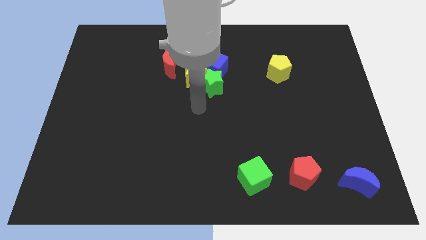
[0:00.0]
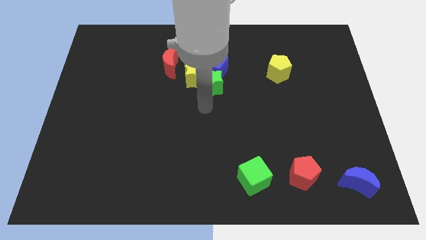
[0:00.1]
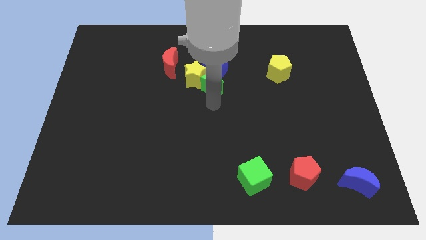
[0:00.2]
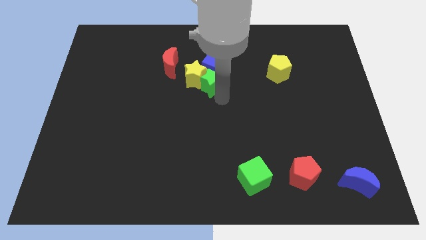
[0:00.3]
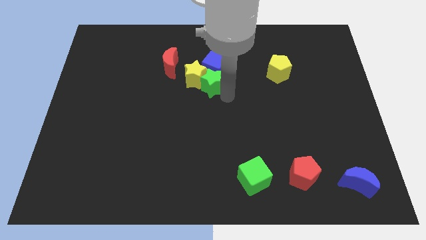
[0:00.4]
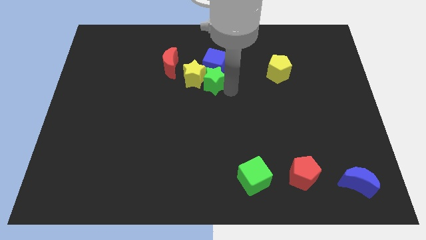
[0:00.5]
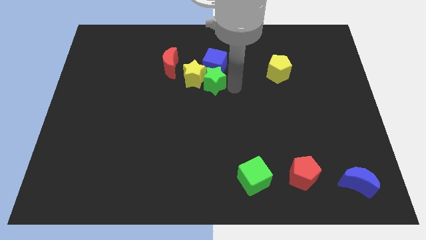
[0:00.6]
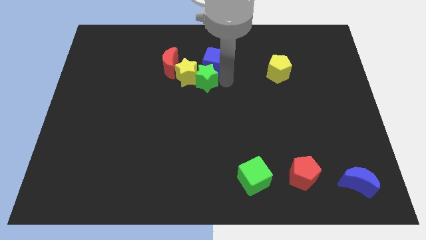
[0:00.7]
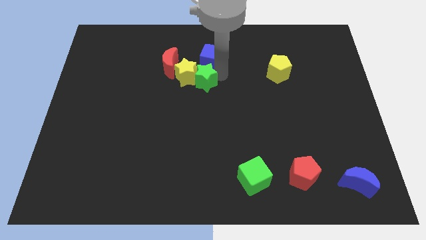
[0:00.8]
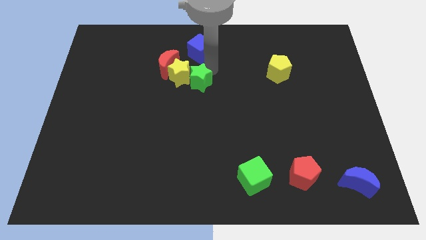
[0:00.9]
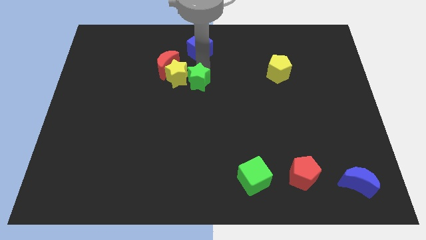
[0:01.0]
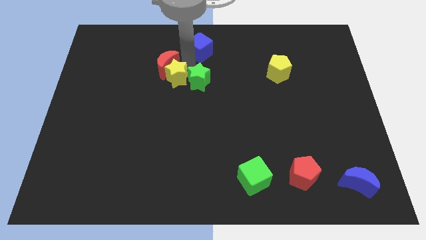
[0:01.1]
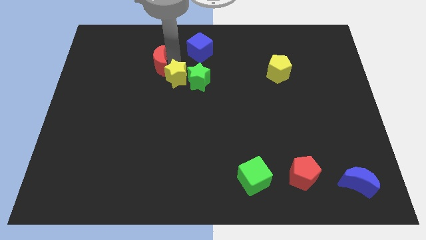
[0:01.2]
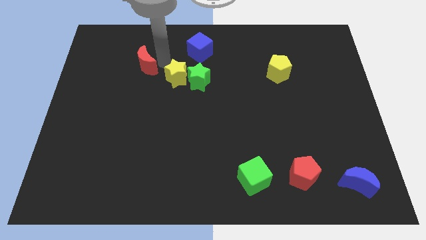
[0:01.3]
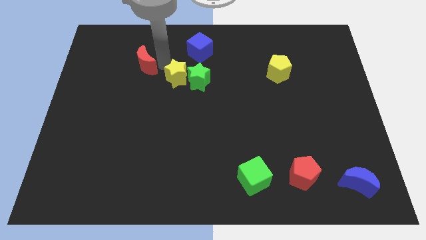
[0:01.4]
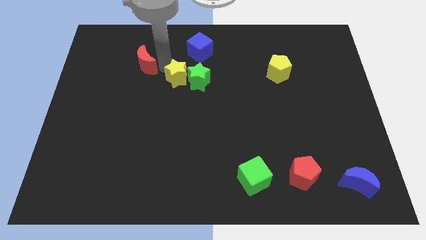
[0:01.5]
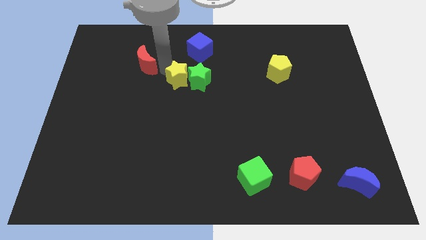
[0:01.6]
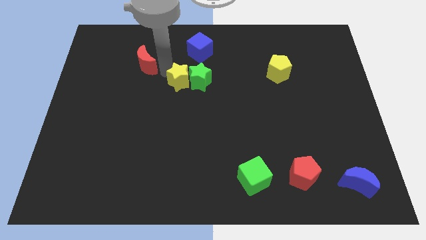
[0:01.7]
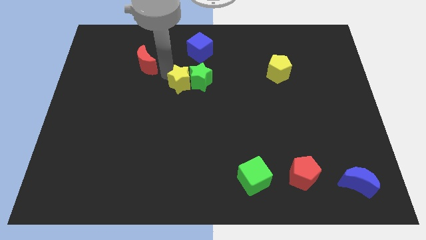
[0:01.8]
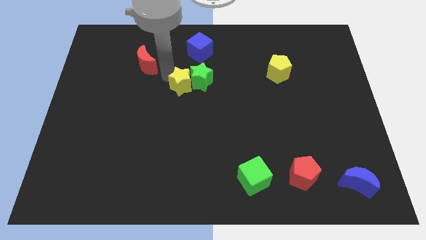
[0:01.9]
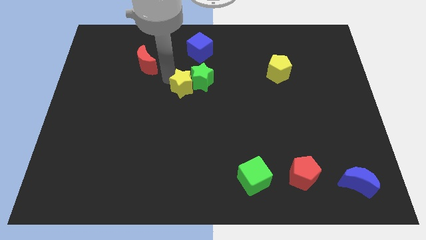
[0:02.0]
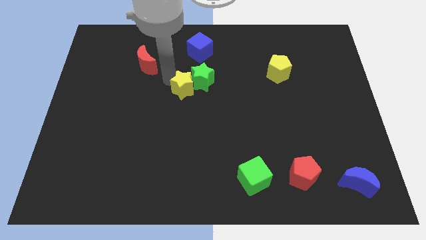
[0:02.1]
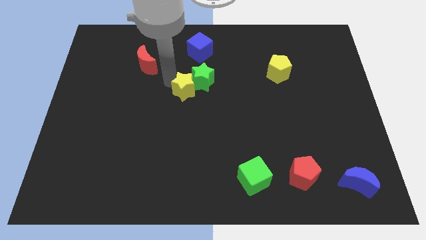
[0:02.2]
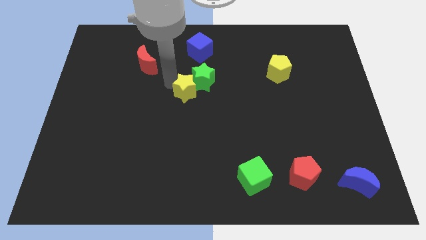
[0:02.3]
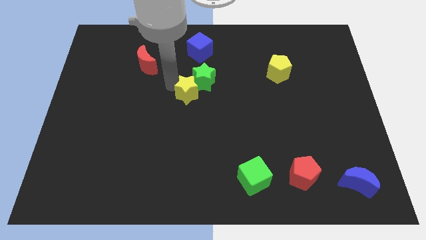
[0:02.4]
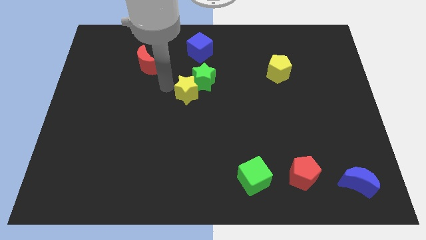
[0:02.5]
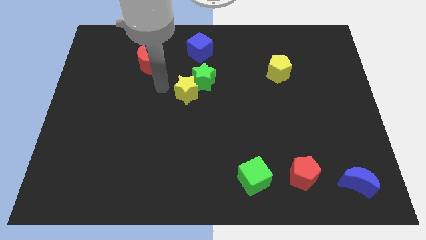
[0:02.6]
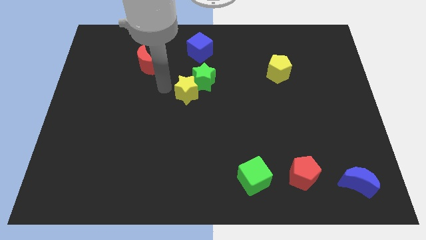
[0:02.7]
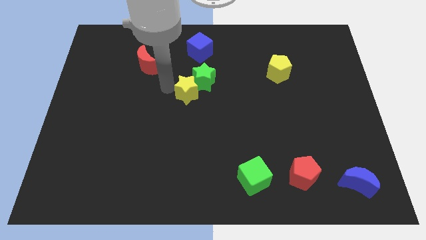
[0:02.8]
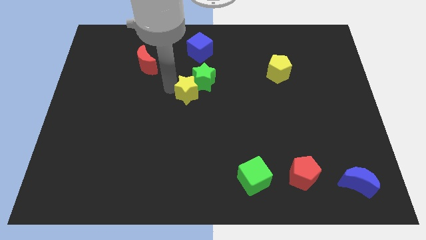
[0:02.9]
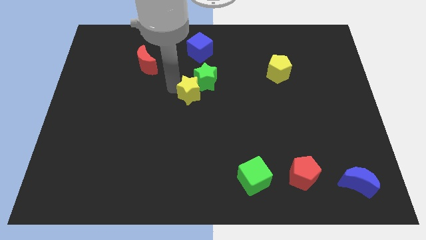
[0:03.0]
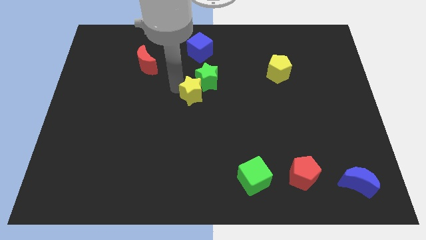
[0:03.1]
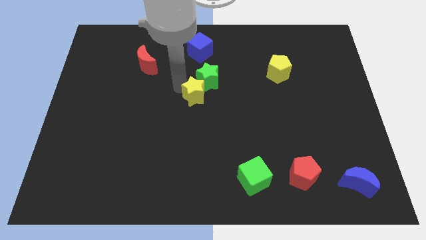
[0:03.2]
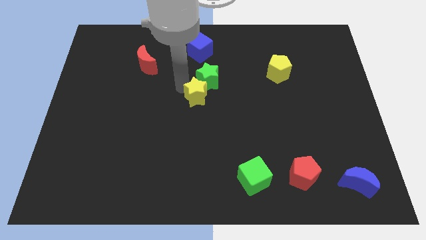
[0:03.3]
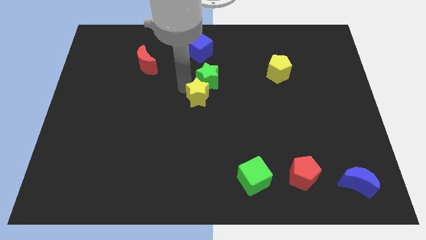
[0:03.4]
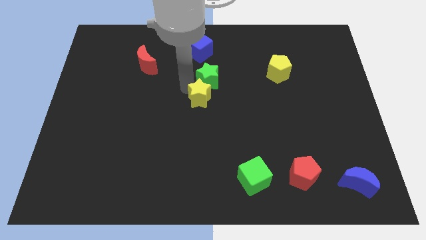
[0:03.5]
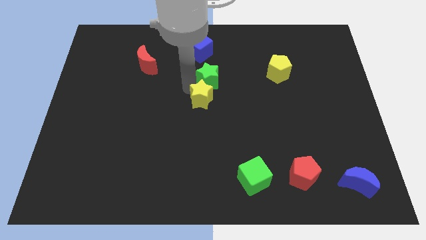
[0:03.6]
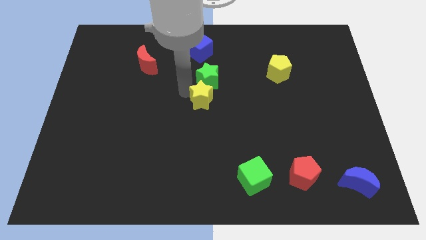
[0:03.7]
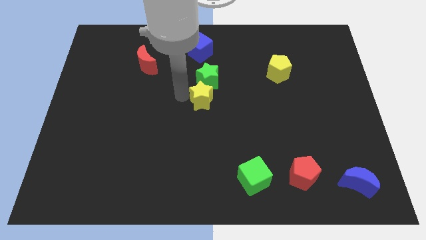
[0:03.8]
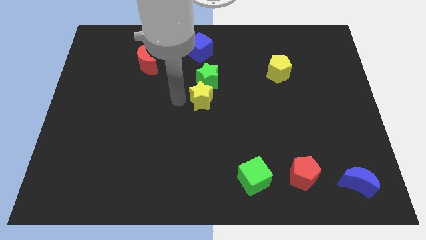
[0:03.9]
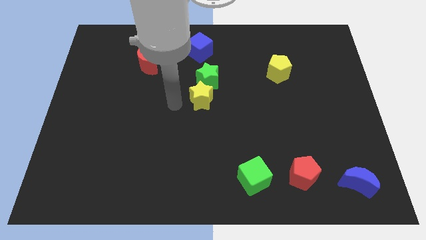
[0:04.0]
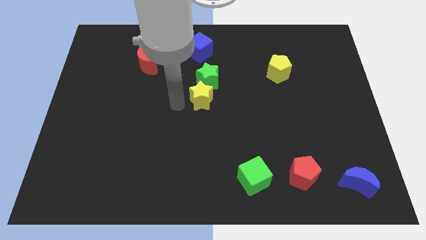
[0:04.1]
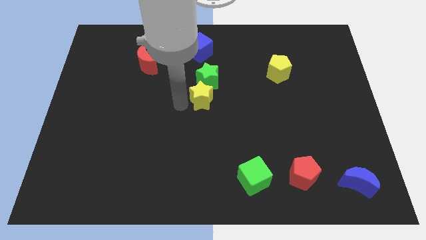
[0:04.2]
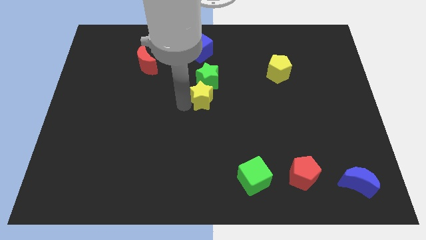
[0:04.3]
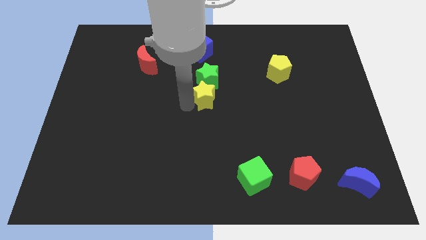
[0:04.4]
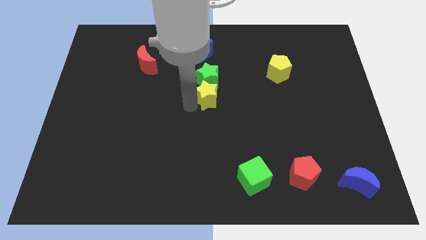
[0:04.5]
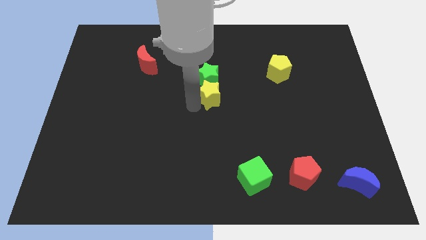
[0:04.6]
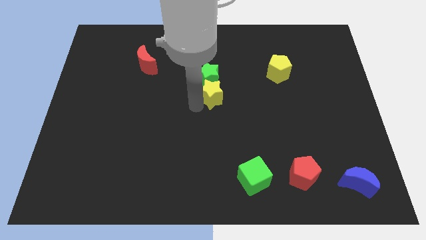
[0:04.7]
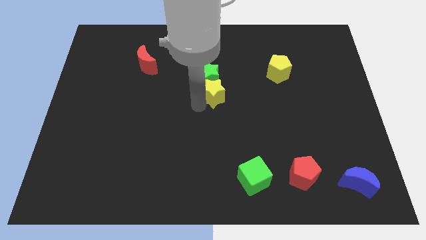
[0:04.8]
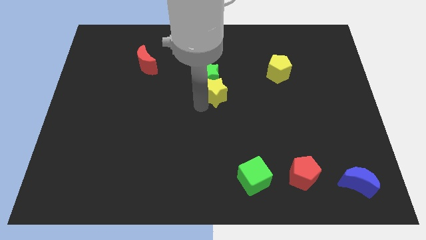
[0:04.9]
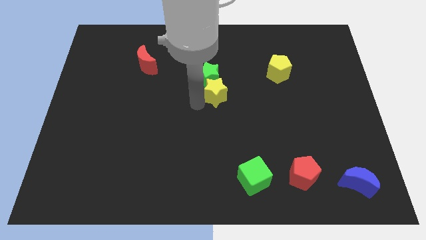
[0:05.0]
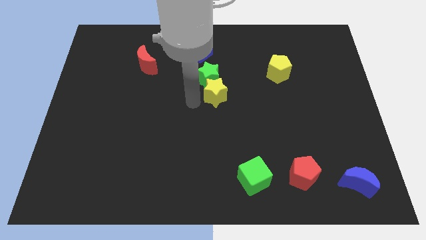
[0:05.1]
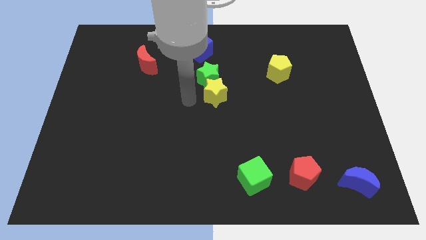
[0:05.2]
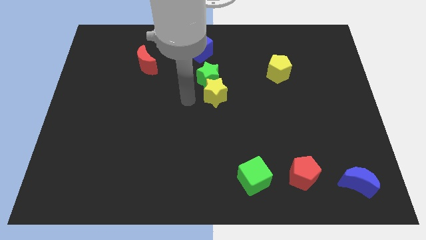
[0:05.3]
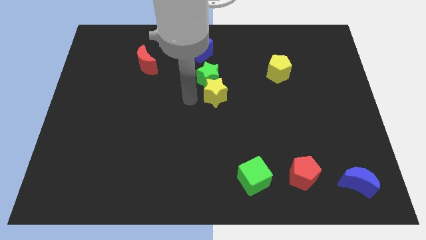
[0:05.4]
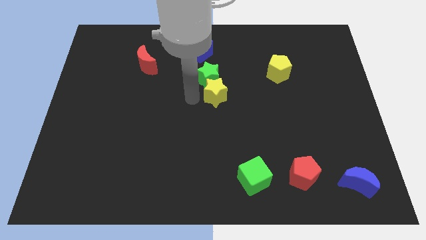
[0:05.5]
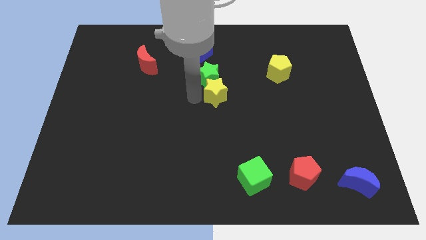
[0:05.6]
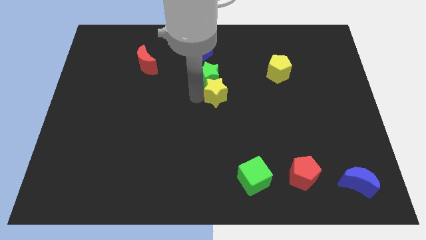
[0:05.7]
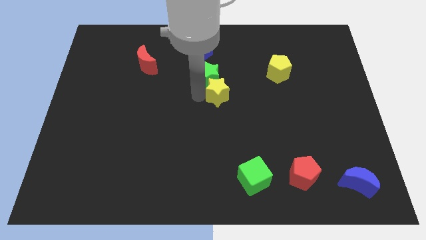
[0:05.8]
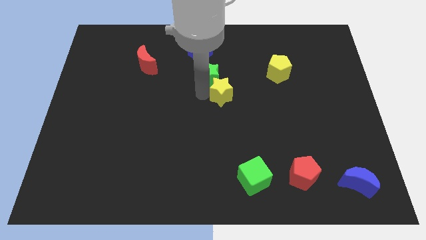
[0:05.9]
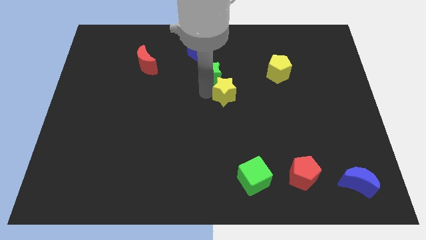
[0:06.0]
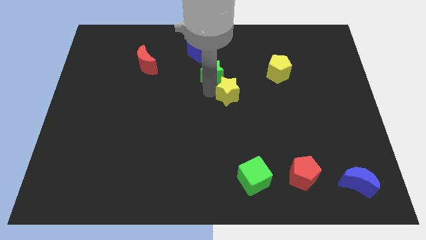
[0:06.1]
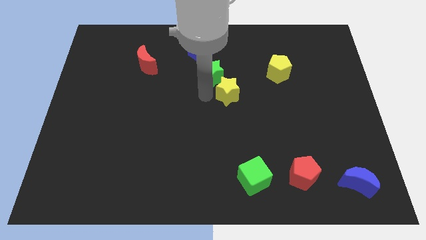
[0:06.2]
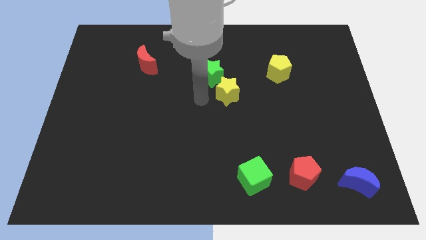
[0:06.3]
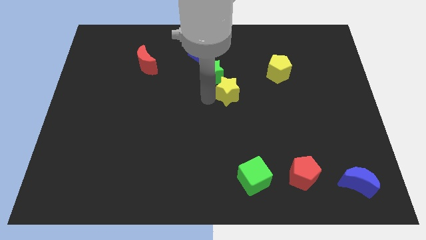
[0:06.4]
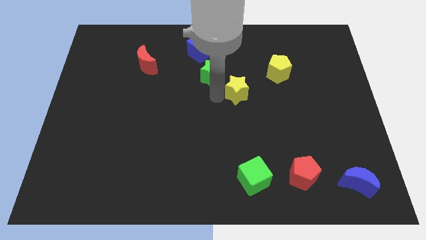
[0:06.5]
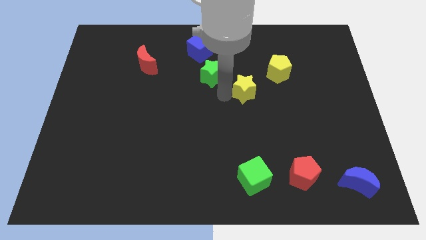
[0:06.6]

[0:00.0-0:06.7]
put the yellow star diagonally down and to the left of the yellow pentagon

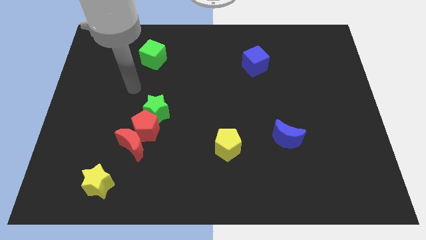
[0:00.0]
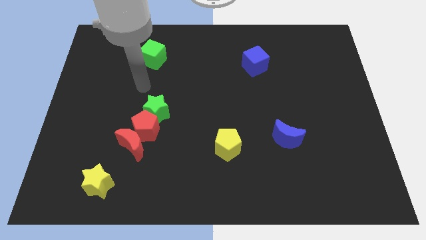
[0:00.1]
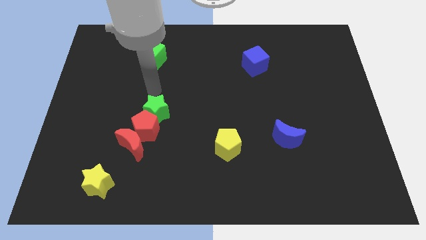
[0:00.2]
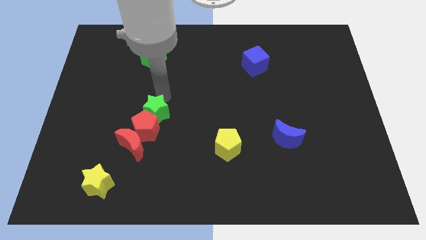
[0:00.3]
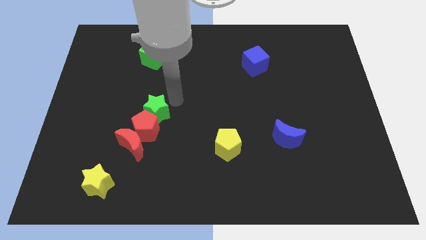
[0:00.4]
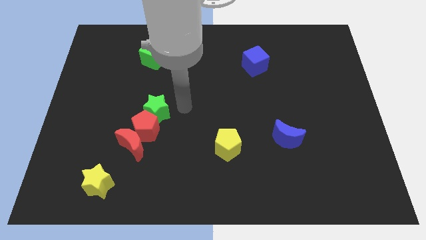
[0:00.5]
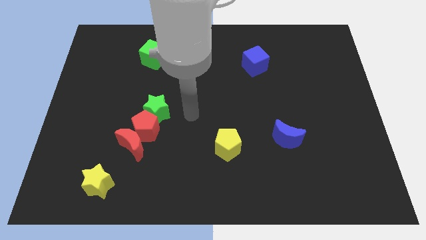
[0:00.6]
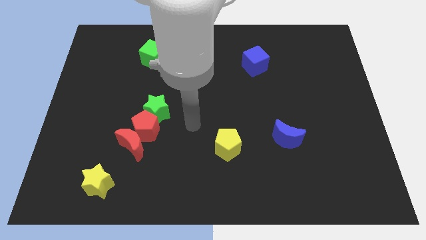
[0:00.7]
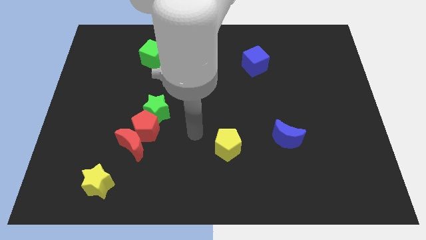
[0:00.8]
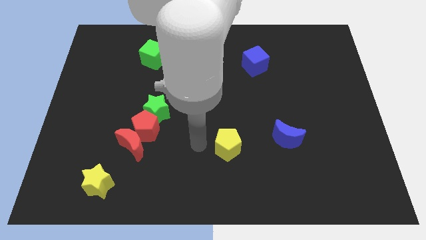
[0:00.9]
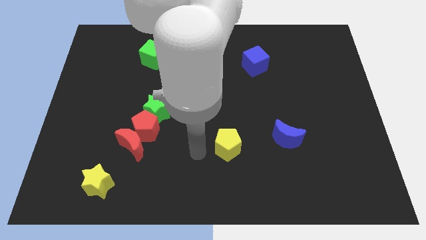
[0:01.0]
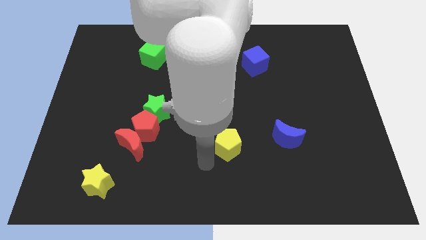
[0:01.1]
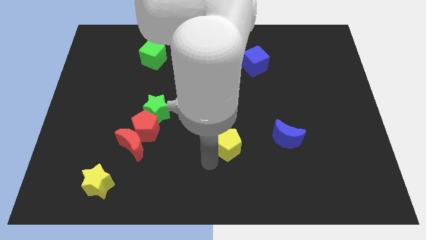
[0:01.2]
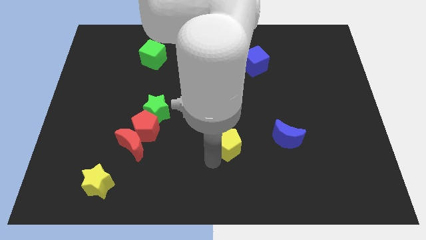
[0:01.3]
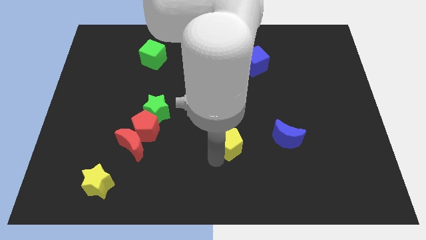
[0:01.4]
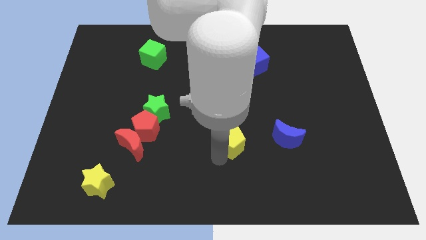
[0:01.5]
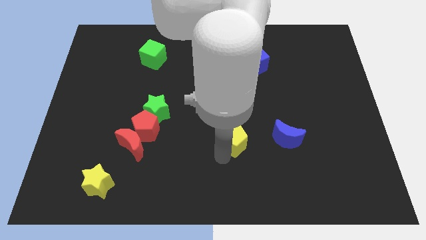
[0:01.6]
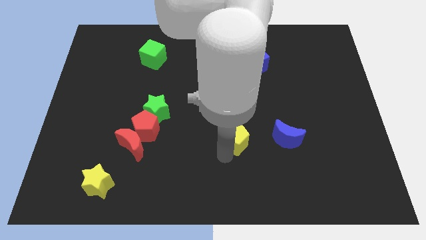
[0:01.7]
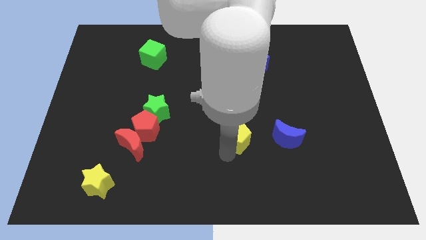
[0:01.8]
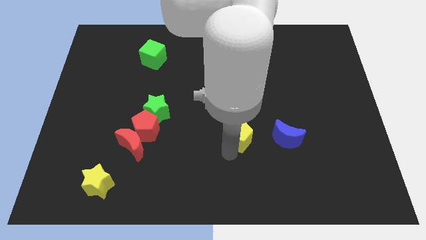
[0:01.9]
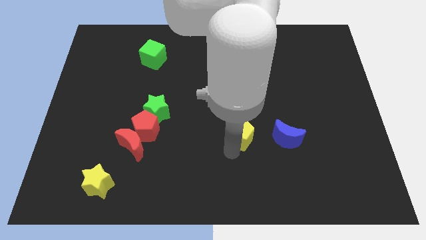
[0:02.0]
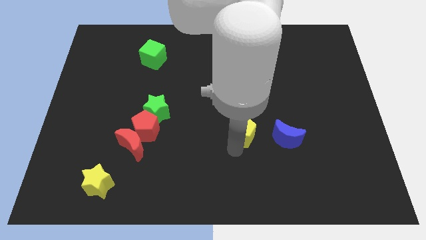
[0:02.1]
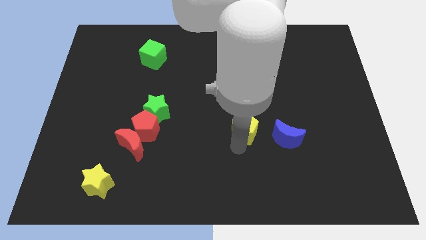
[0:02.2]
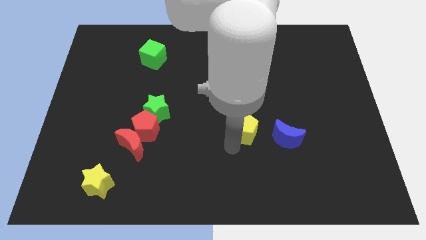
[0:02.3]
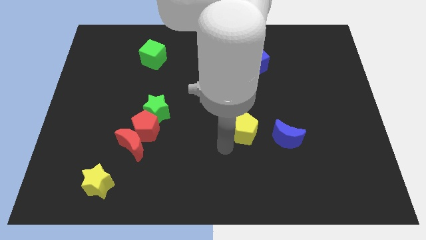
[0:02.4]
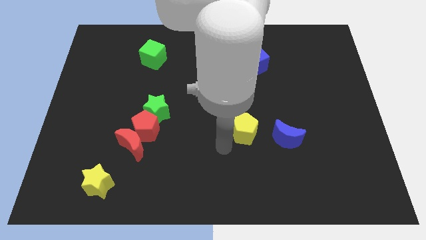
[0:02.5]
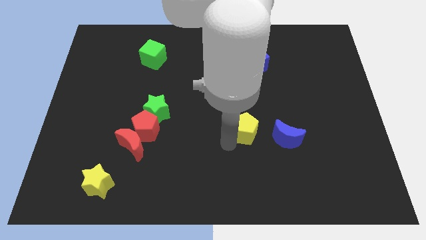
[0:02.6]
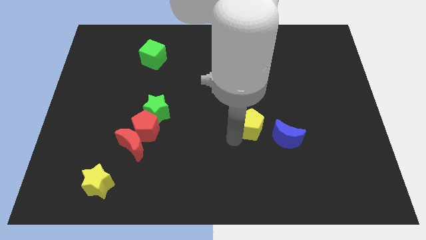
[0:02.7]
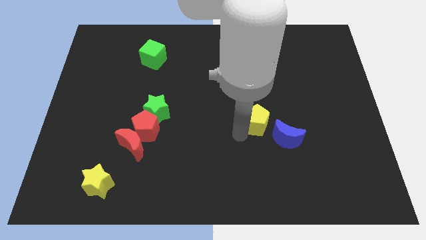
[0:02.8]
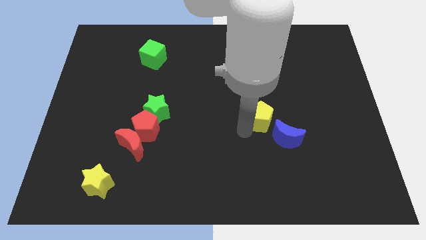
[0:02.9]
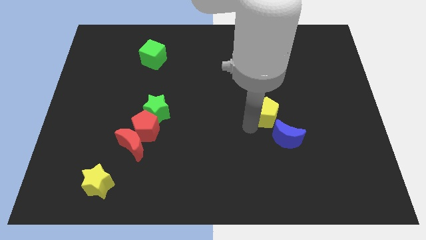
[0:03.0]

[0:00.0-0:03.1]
put the yellow pentagon to the top of the blue moon
